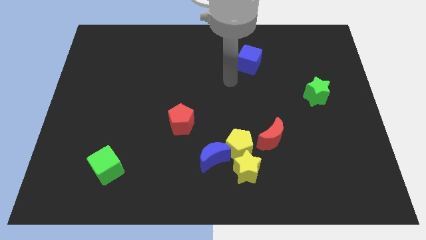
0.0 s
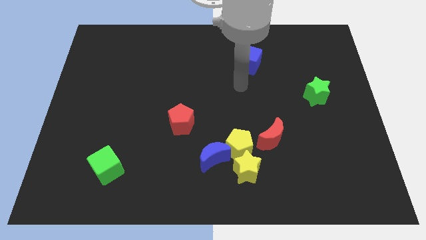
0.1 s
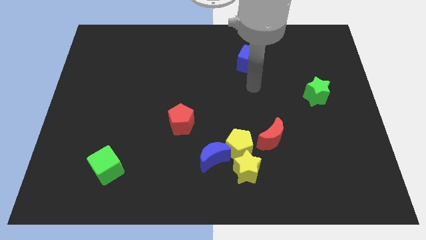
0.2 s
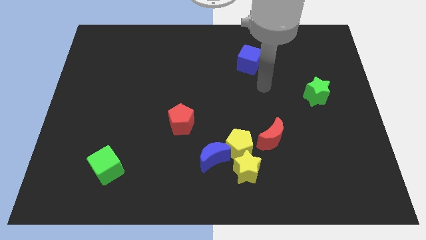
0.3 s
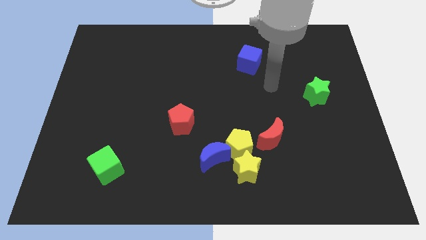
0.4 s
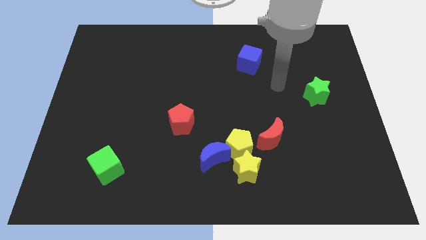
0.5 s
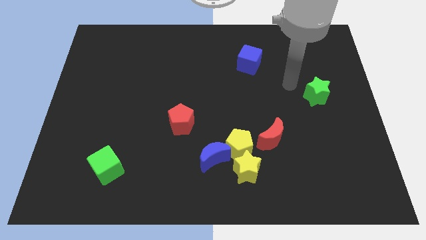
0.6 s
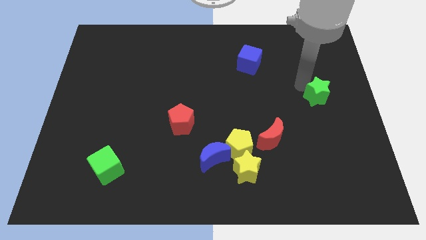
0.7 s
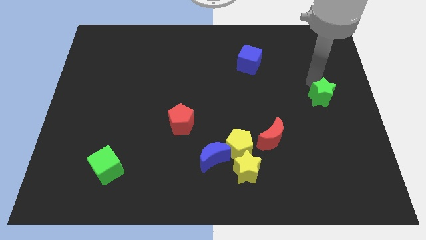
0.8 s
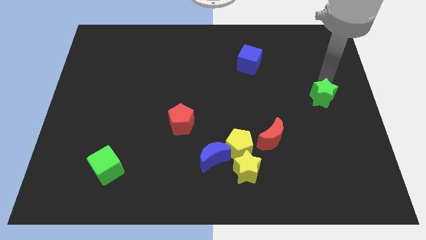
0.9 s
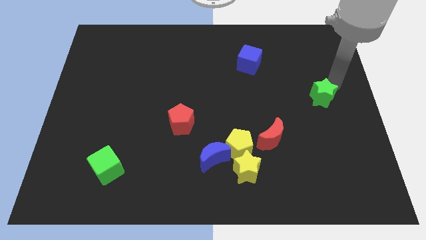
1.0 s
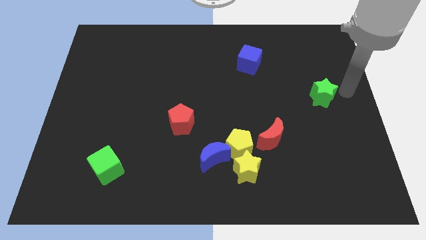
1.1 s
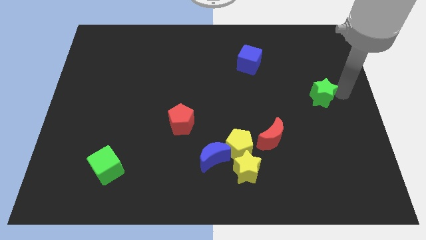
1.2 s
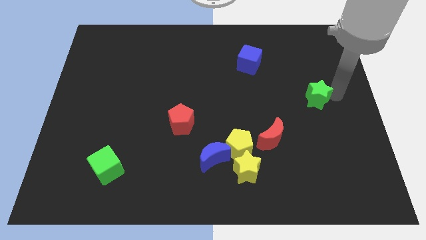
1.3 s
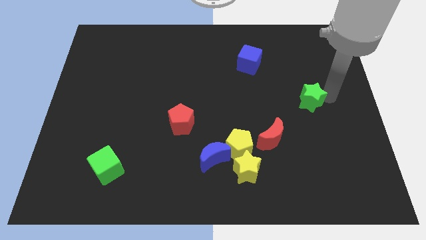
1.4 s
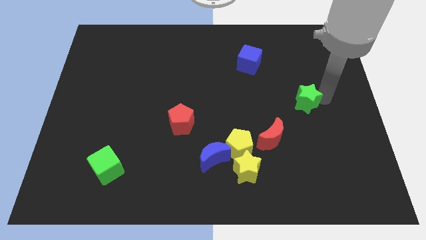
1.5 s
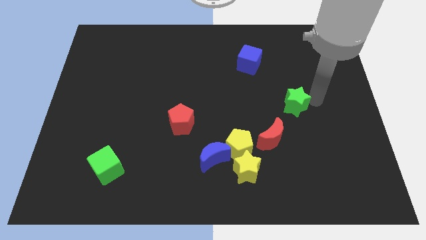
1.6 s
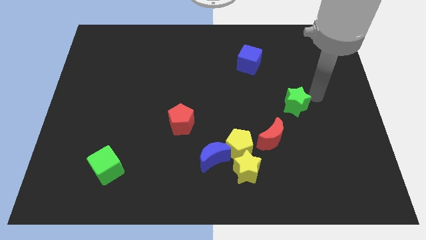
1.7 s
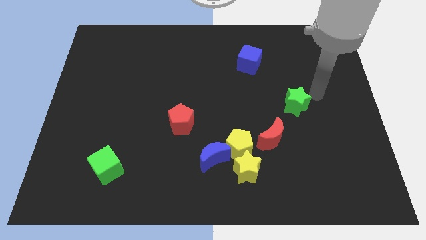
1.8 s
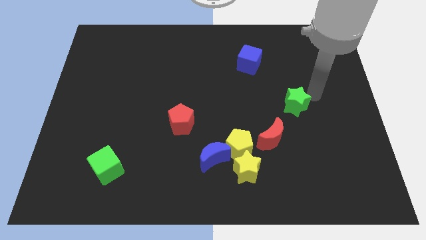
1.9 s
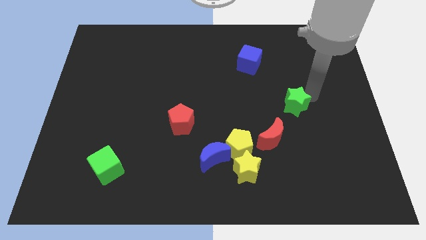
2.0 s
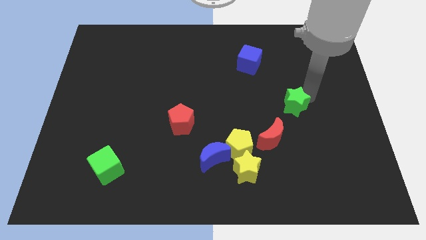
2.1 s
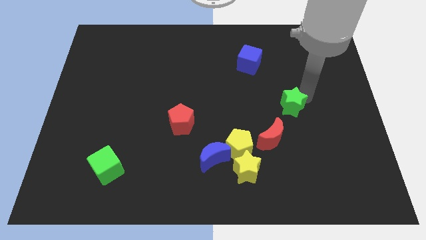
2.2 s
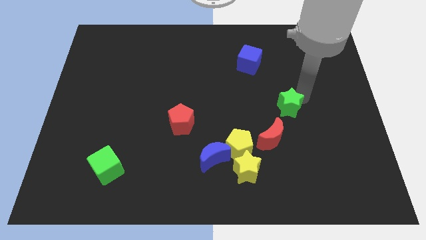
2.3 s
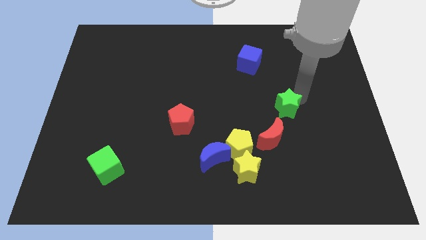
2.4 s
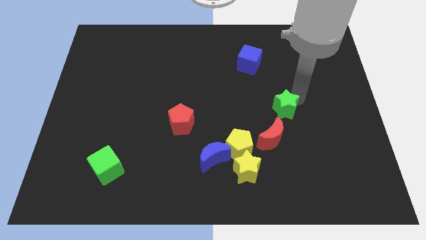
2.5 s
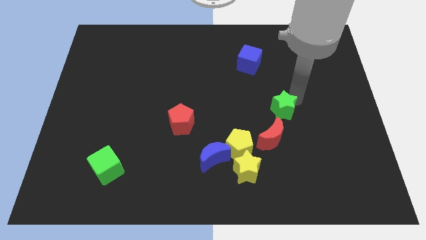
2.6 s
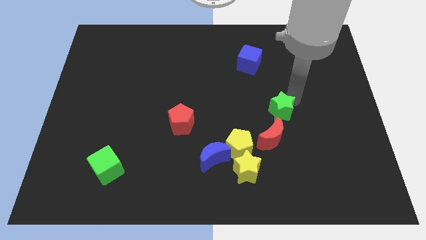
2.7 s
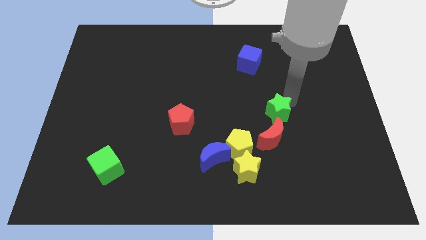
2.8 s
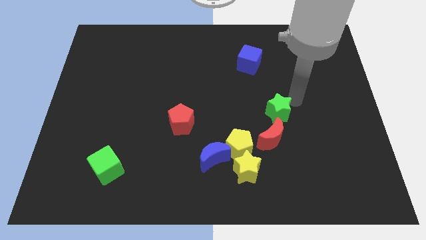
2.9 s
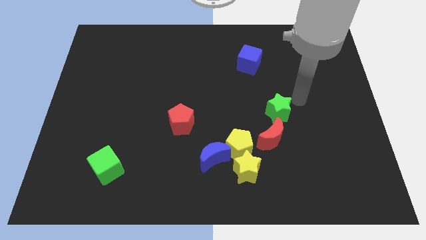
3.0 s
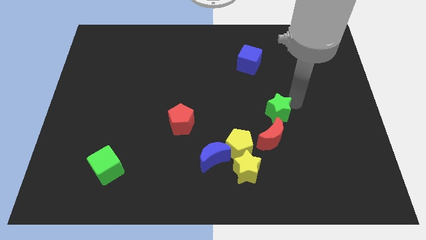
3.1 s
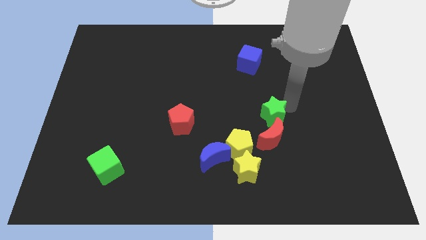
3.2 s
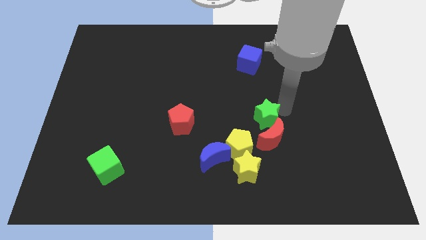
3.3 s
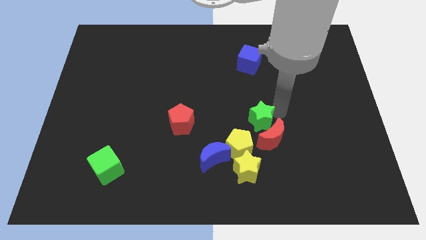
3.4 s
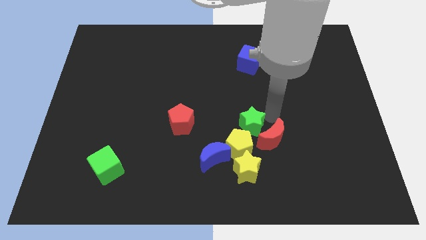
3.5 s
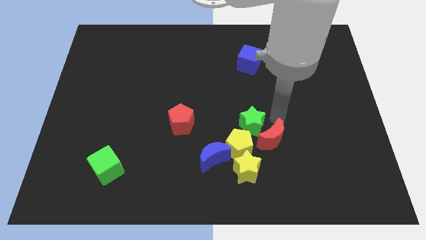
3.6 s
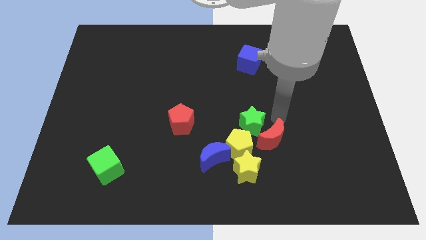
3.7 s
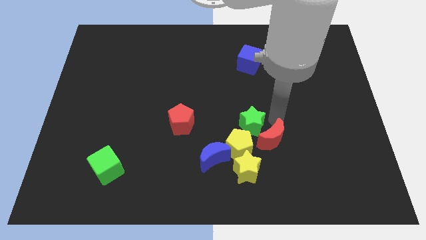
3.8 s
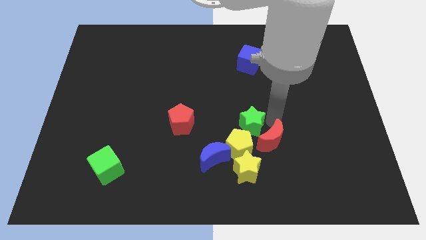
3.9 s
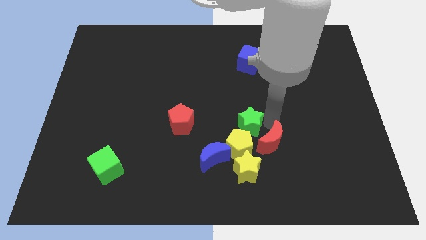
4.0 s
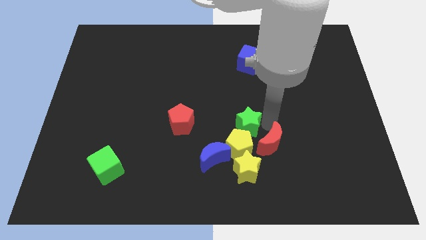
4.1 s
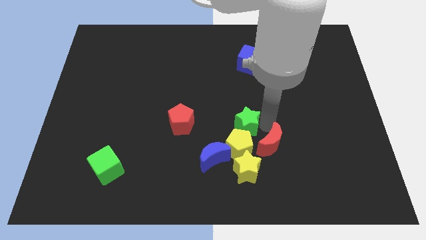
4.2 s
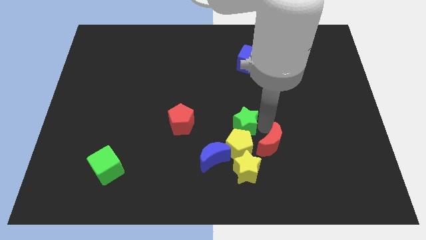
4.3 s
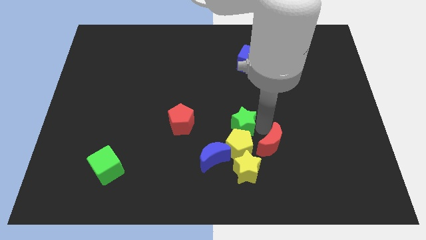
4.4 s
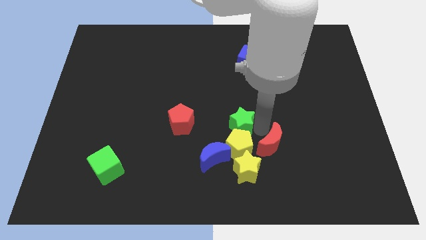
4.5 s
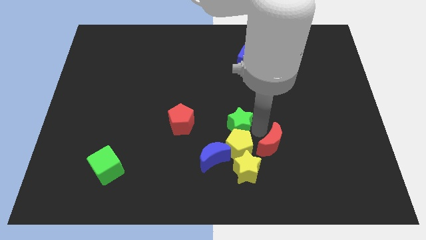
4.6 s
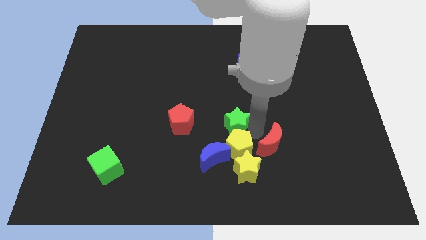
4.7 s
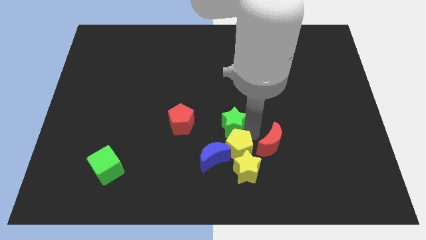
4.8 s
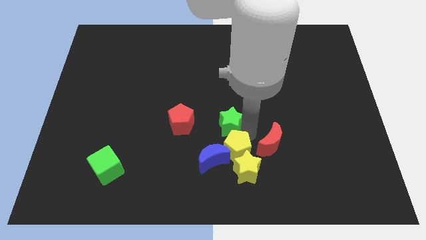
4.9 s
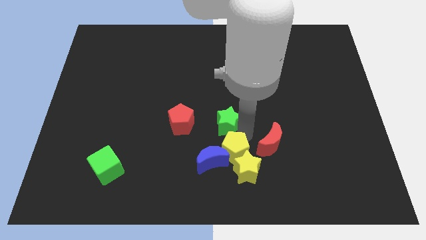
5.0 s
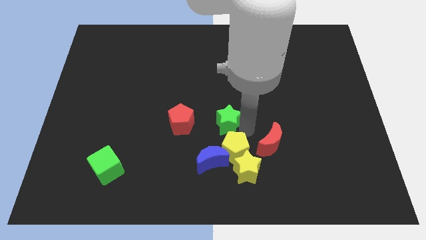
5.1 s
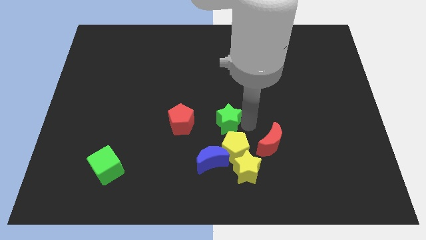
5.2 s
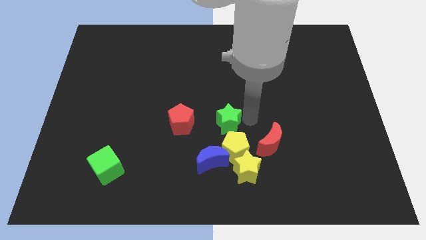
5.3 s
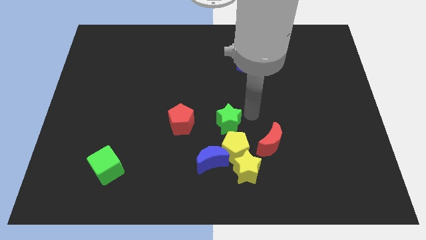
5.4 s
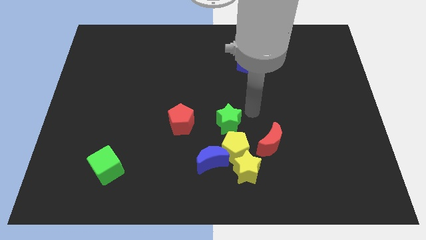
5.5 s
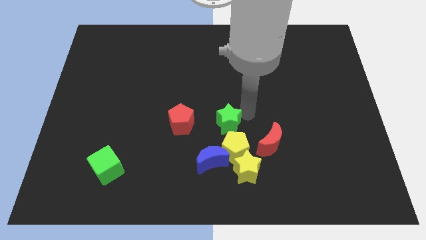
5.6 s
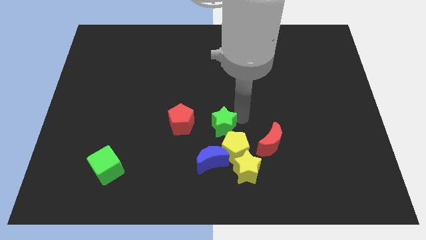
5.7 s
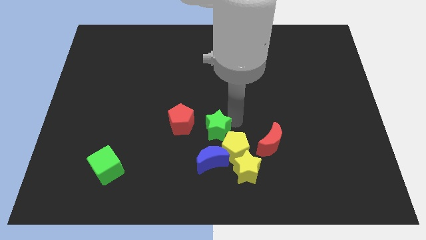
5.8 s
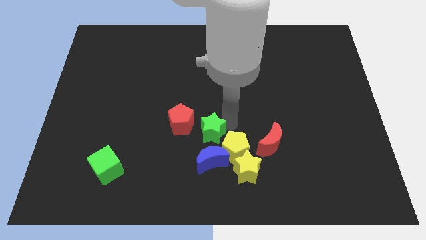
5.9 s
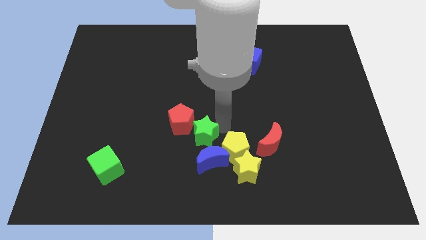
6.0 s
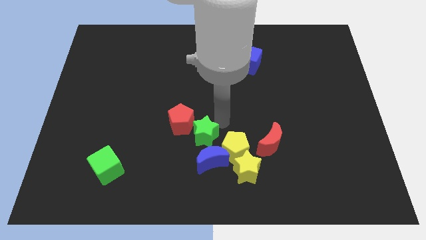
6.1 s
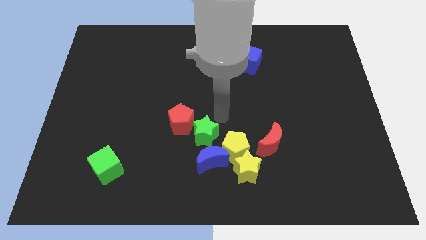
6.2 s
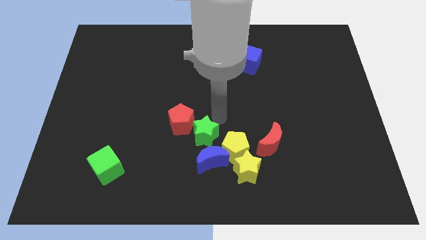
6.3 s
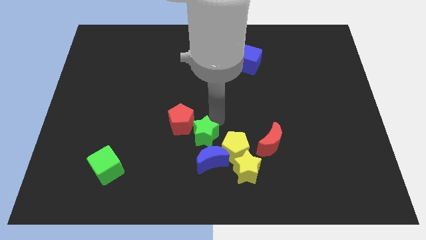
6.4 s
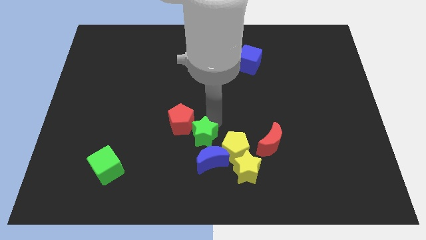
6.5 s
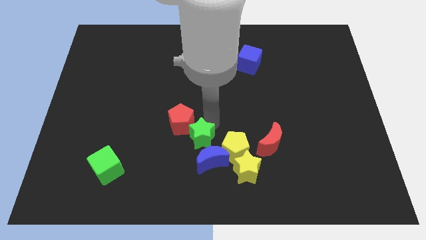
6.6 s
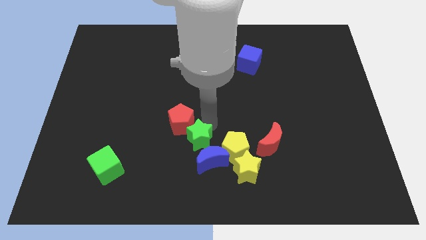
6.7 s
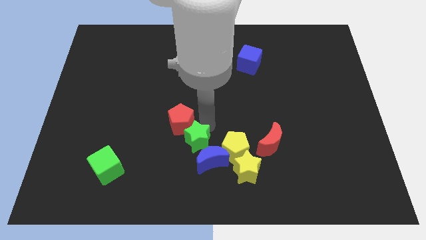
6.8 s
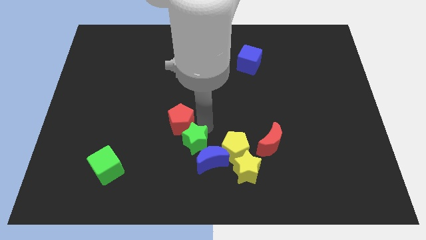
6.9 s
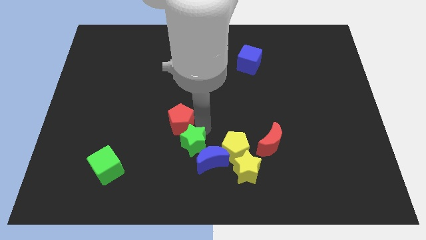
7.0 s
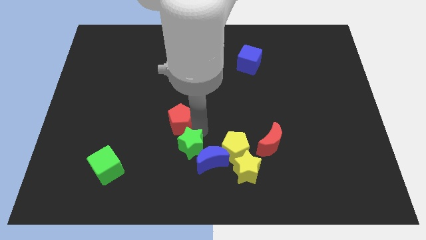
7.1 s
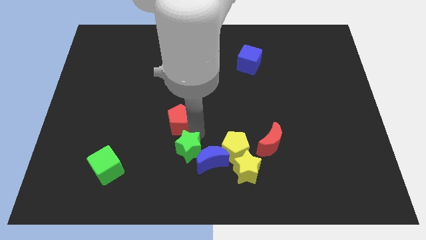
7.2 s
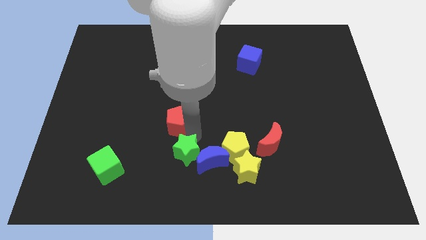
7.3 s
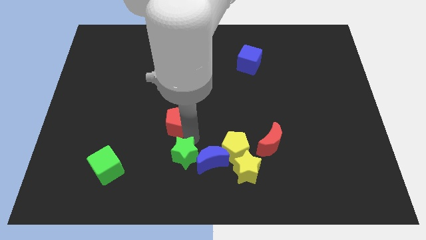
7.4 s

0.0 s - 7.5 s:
put the green star to the bottom left of the blue moon

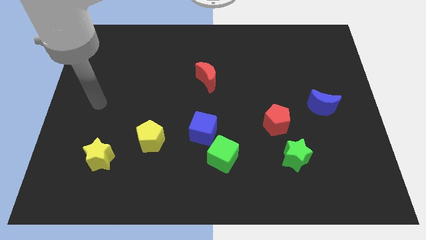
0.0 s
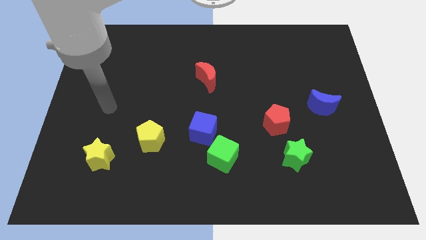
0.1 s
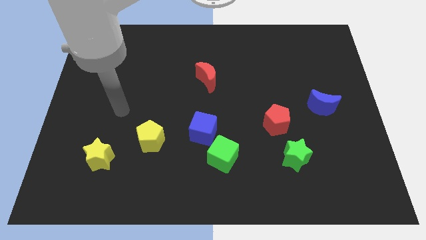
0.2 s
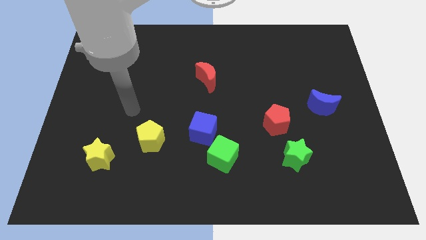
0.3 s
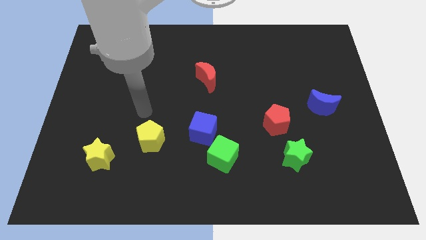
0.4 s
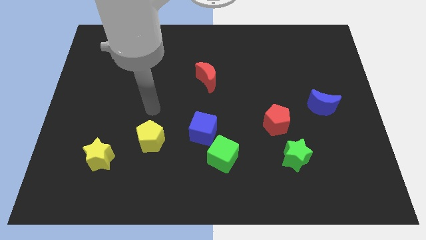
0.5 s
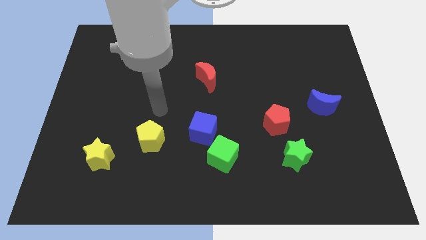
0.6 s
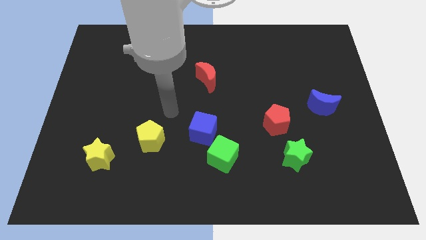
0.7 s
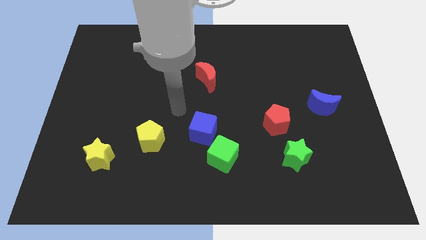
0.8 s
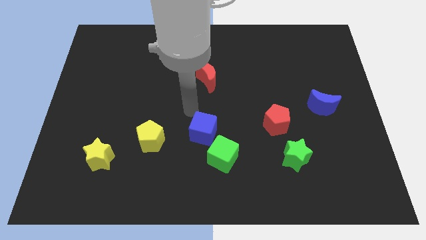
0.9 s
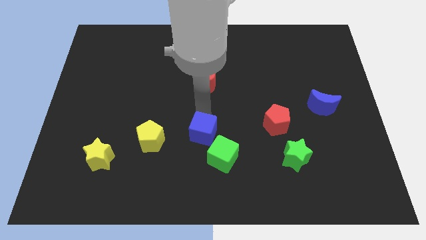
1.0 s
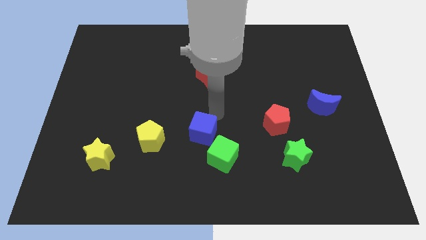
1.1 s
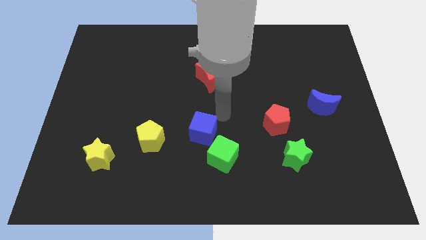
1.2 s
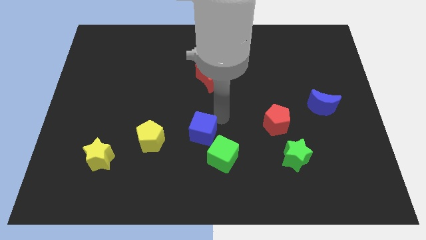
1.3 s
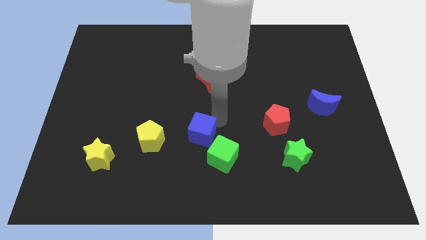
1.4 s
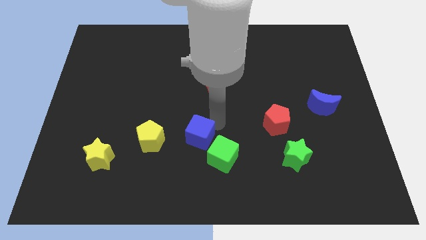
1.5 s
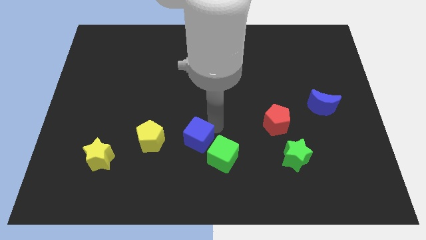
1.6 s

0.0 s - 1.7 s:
slide the blue cube left of the green cube
